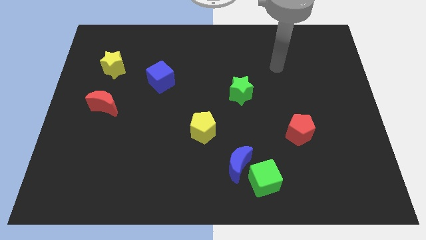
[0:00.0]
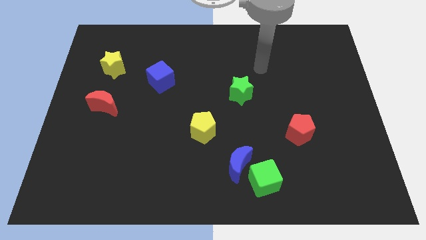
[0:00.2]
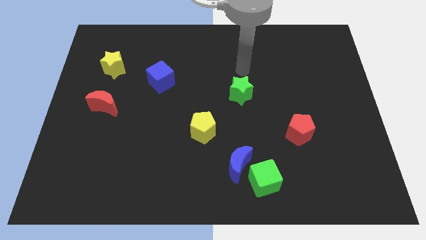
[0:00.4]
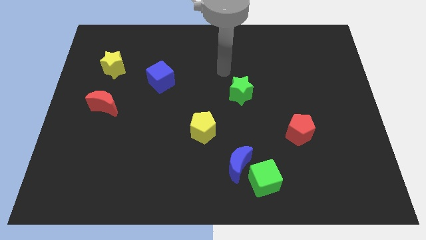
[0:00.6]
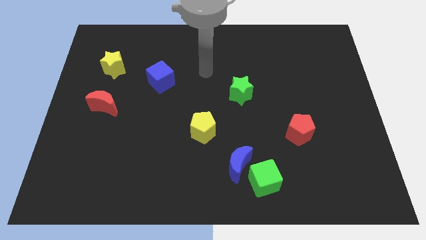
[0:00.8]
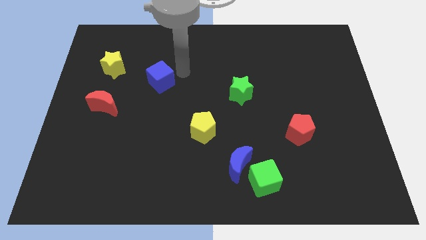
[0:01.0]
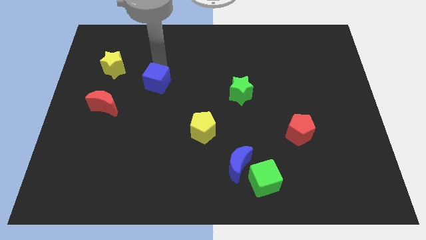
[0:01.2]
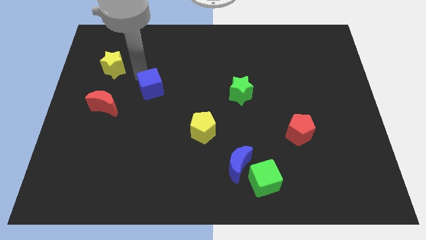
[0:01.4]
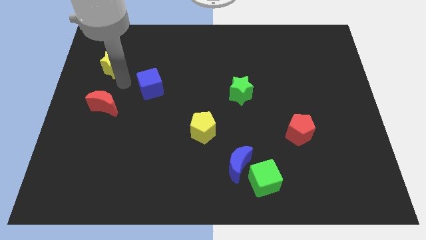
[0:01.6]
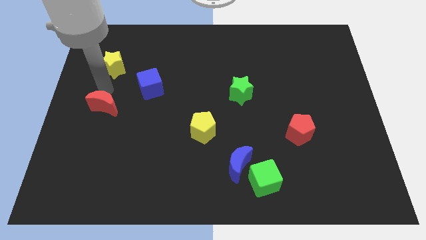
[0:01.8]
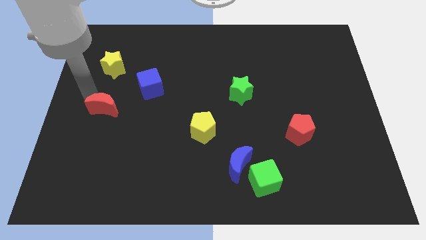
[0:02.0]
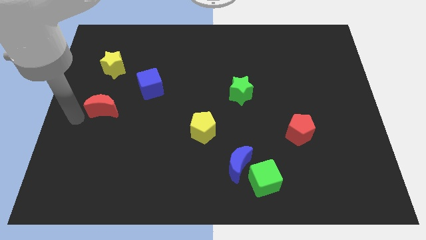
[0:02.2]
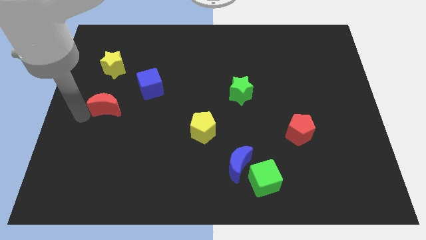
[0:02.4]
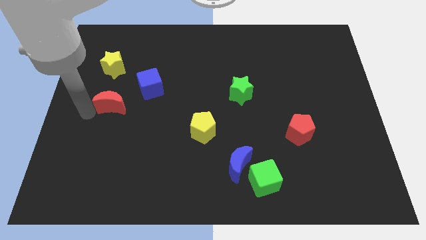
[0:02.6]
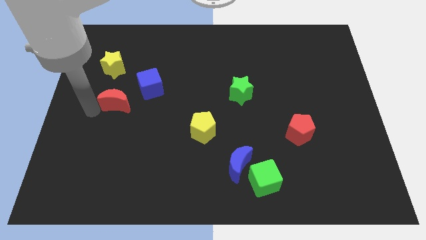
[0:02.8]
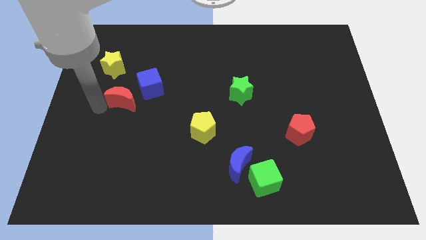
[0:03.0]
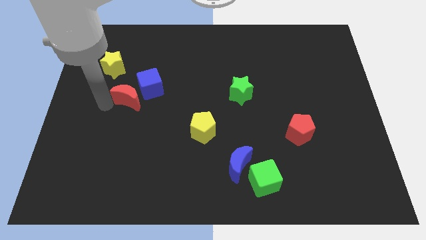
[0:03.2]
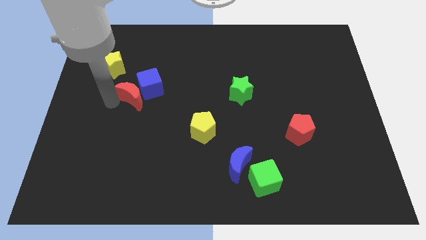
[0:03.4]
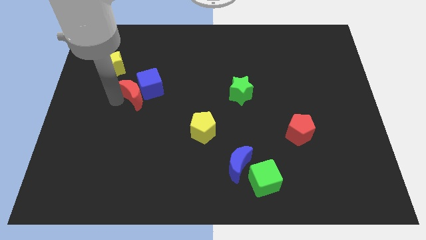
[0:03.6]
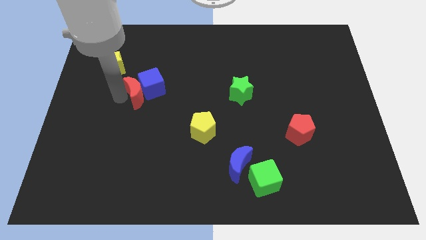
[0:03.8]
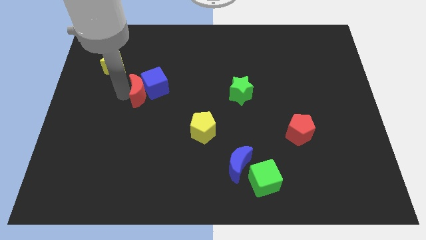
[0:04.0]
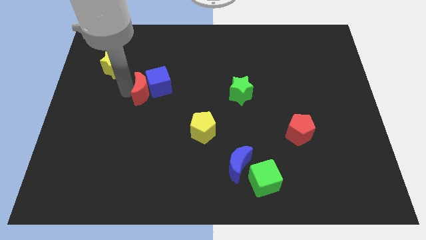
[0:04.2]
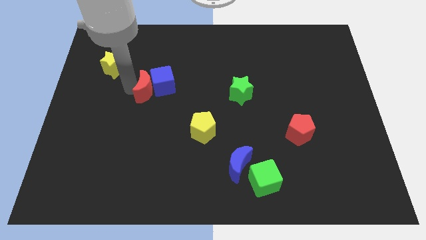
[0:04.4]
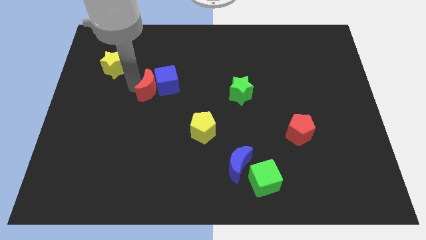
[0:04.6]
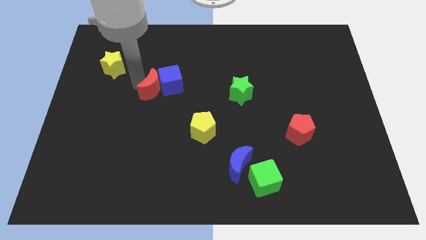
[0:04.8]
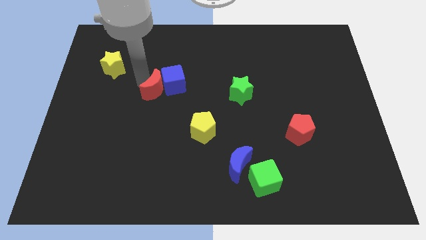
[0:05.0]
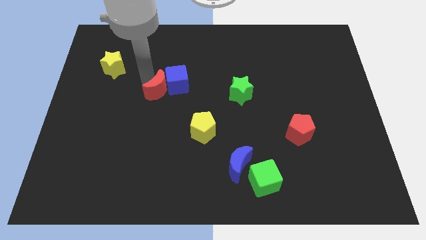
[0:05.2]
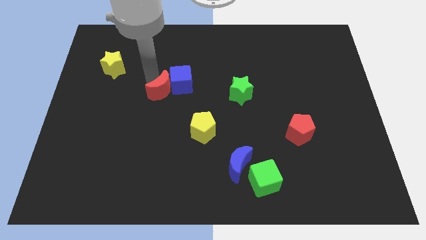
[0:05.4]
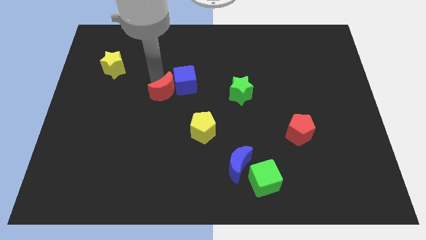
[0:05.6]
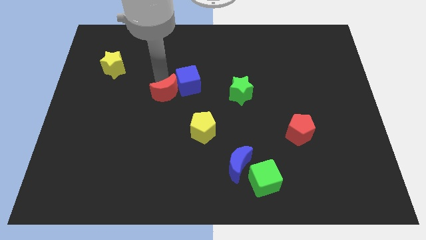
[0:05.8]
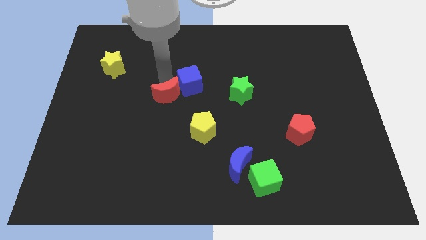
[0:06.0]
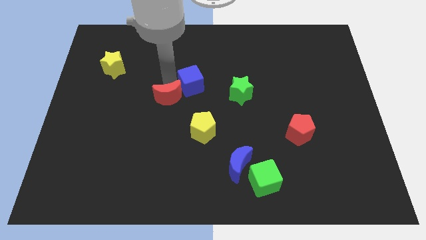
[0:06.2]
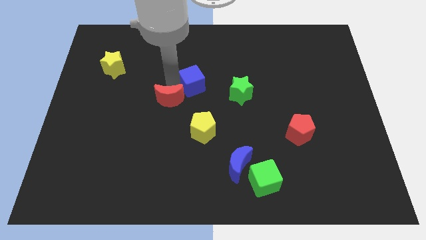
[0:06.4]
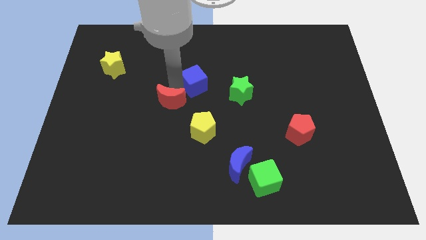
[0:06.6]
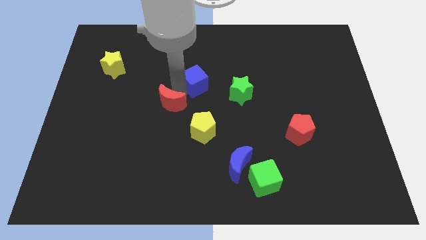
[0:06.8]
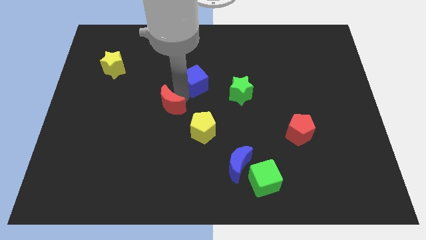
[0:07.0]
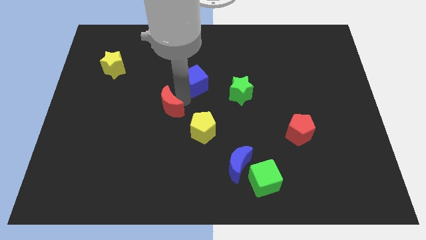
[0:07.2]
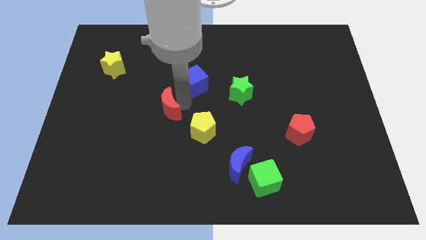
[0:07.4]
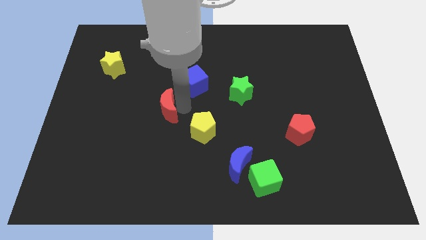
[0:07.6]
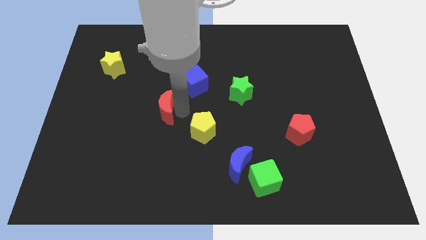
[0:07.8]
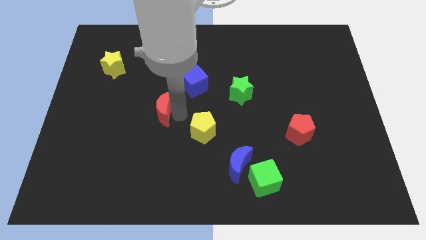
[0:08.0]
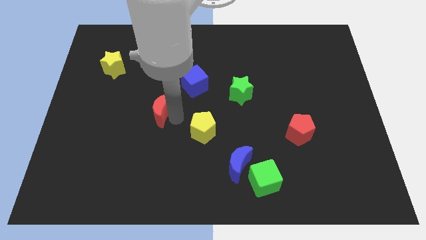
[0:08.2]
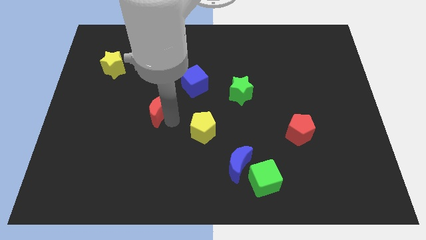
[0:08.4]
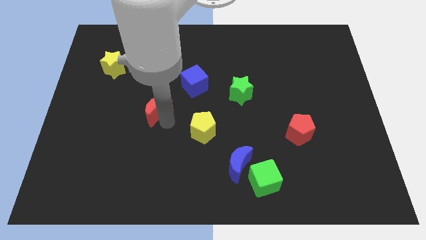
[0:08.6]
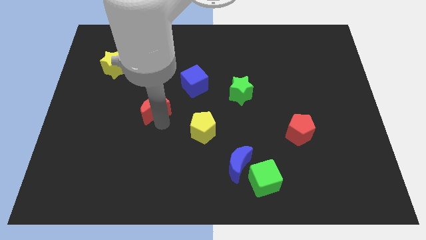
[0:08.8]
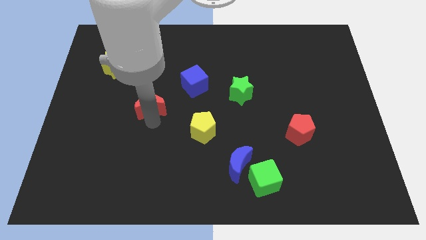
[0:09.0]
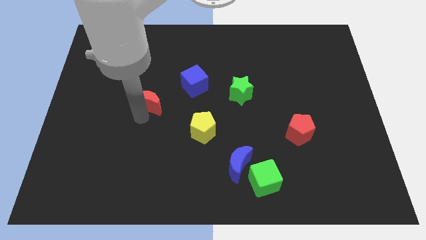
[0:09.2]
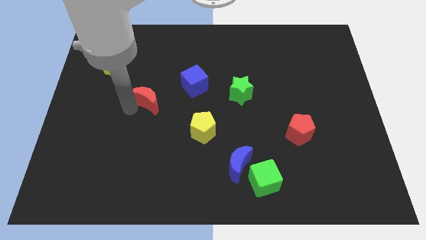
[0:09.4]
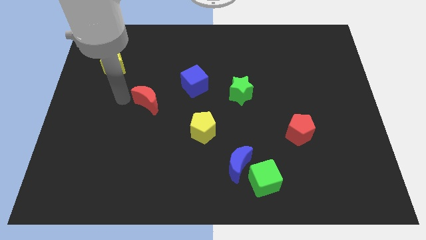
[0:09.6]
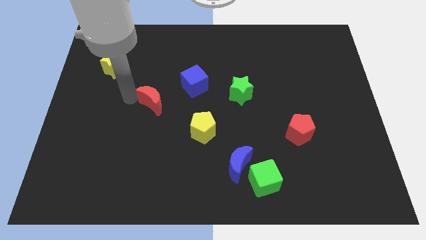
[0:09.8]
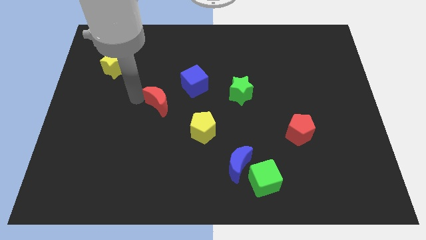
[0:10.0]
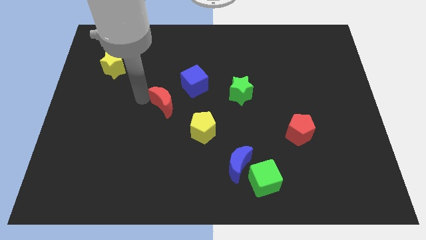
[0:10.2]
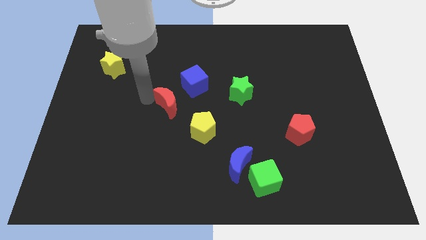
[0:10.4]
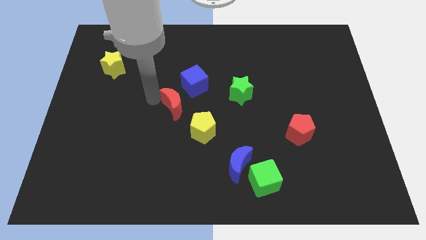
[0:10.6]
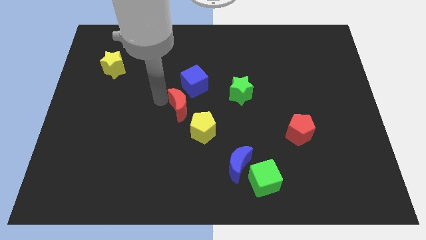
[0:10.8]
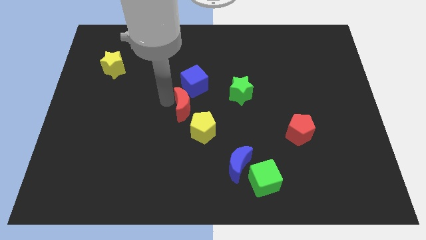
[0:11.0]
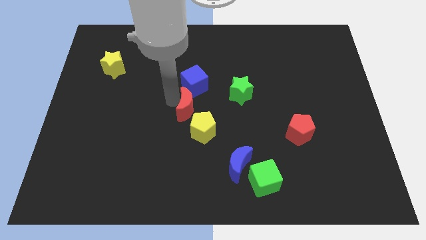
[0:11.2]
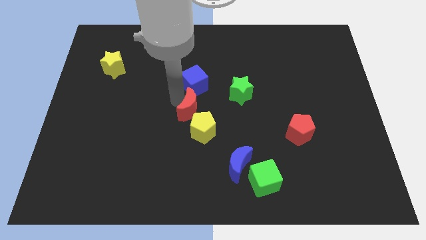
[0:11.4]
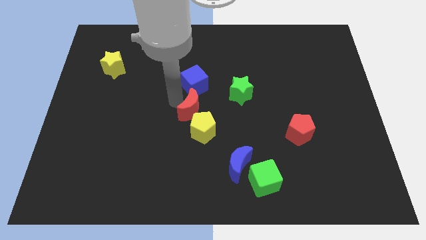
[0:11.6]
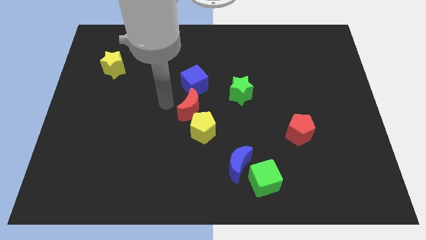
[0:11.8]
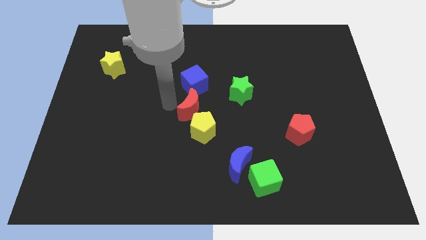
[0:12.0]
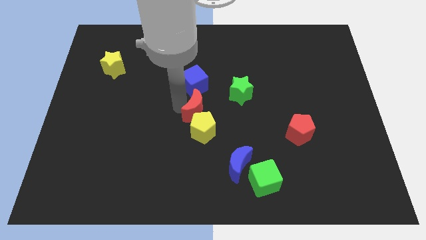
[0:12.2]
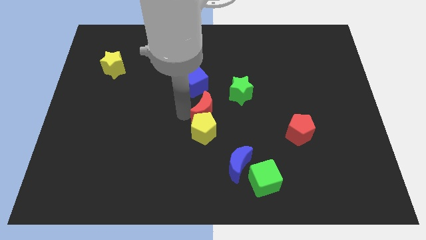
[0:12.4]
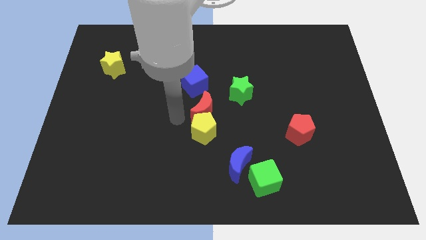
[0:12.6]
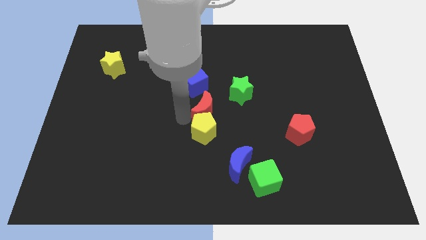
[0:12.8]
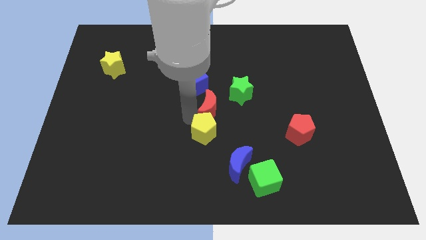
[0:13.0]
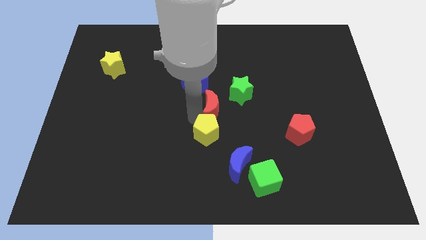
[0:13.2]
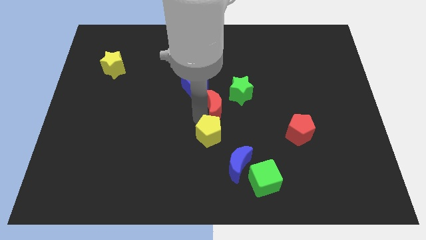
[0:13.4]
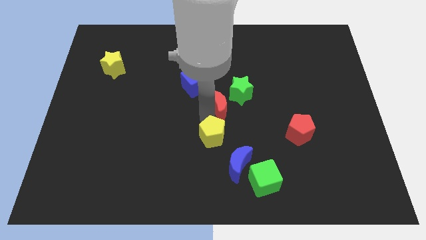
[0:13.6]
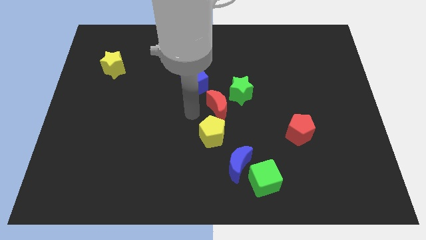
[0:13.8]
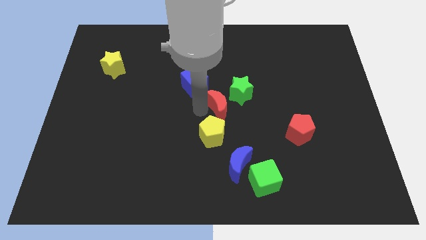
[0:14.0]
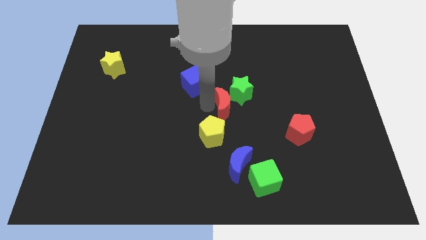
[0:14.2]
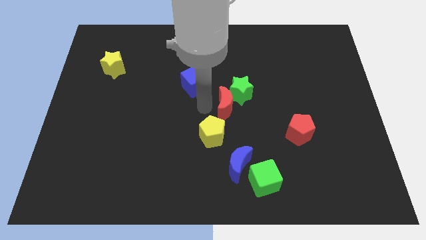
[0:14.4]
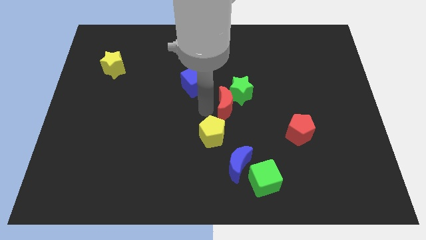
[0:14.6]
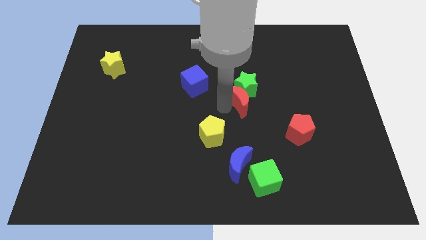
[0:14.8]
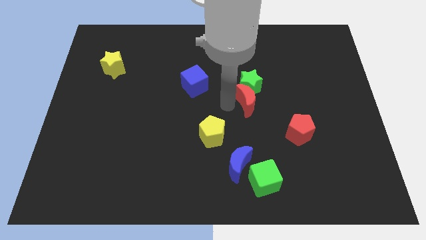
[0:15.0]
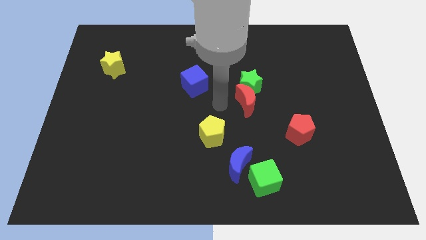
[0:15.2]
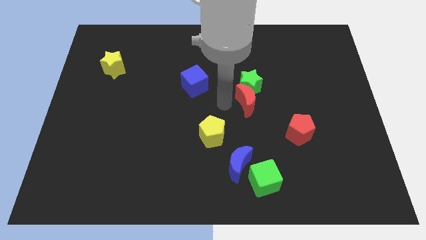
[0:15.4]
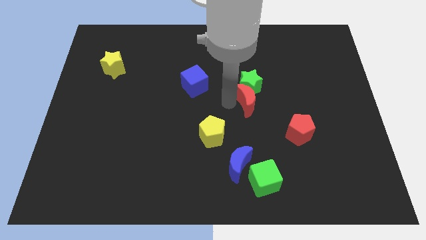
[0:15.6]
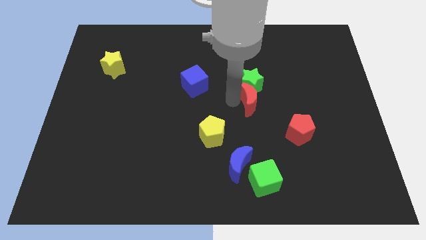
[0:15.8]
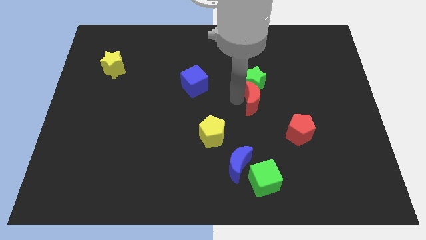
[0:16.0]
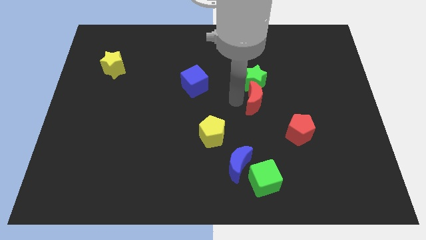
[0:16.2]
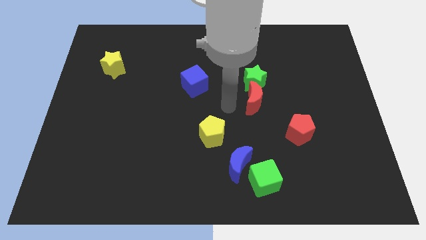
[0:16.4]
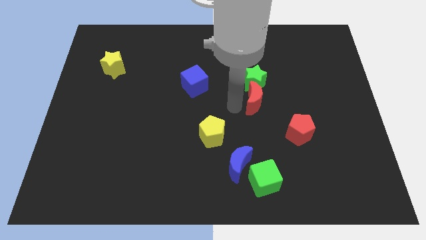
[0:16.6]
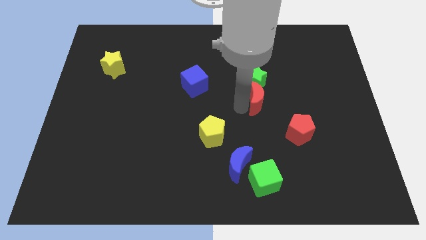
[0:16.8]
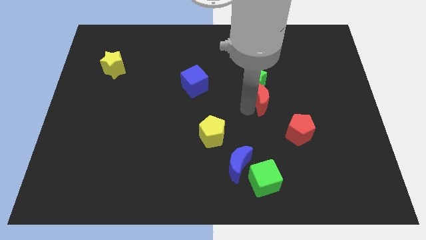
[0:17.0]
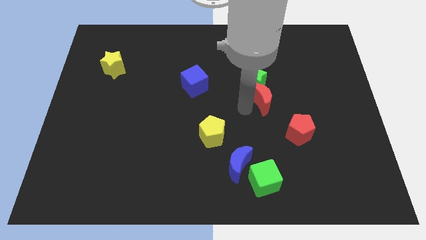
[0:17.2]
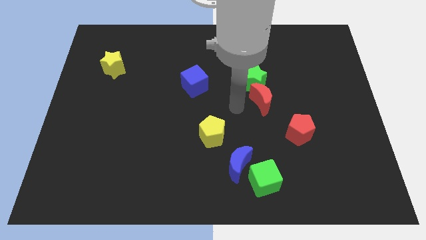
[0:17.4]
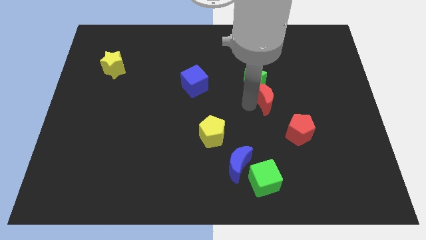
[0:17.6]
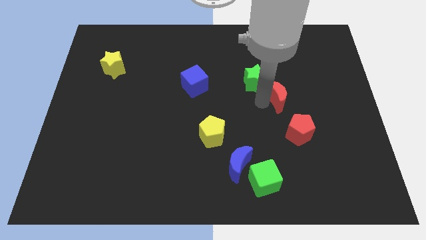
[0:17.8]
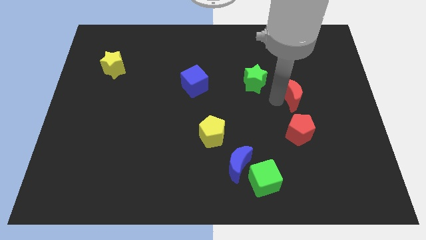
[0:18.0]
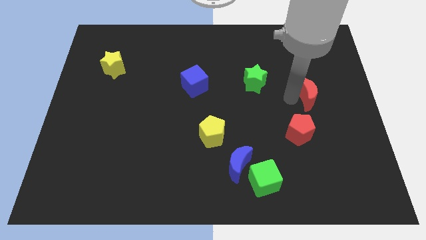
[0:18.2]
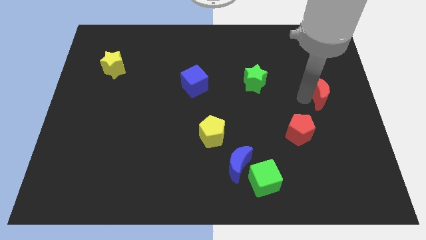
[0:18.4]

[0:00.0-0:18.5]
push the red moon to the right side
